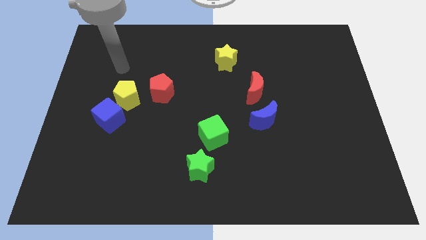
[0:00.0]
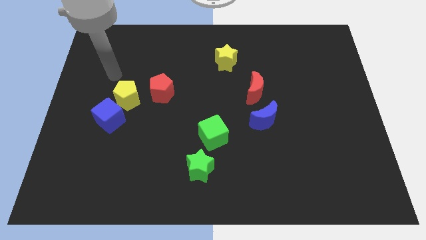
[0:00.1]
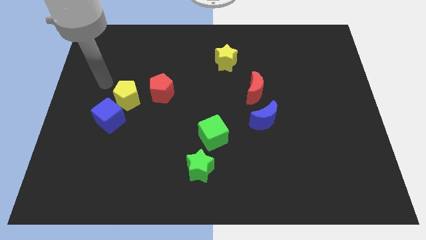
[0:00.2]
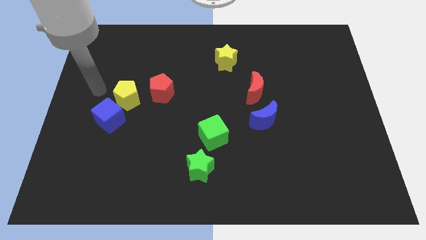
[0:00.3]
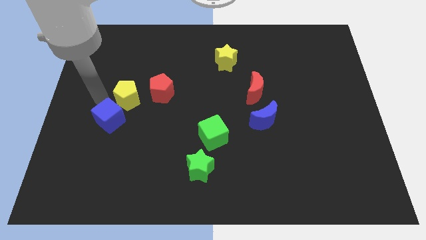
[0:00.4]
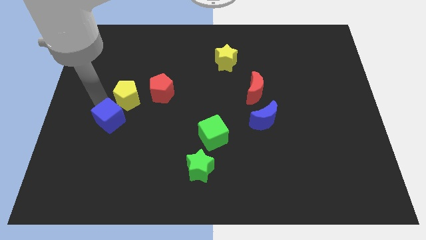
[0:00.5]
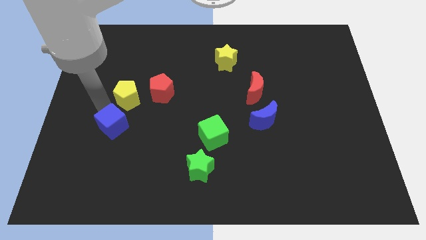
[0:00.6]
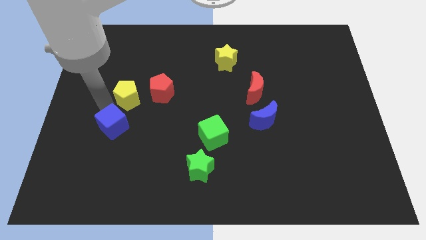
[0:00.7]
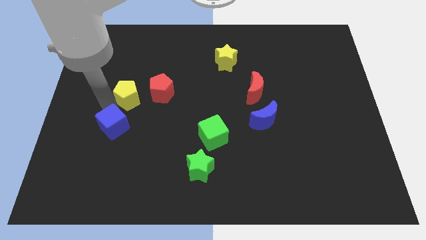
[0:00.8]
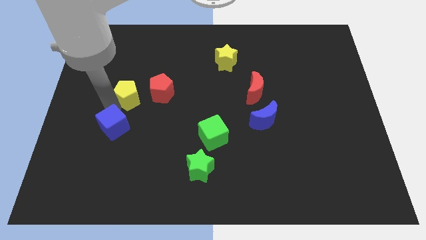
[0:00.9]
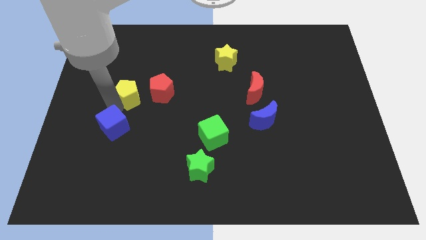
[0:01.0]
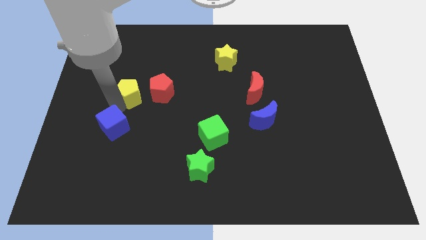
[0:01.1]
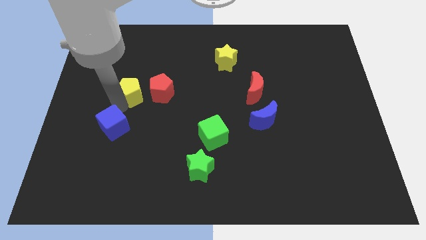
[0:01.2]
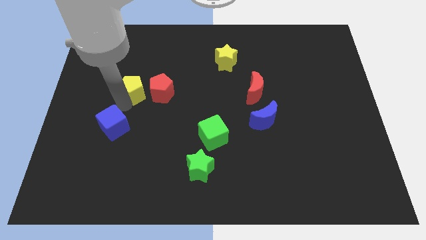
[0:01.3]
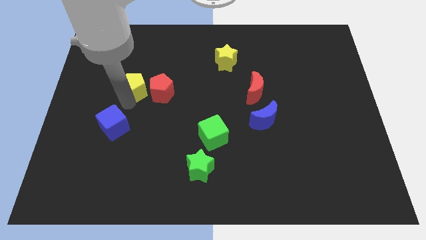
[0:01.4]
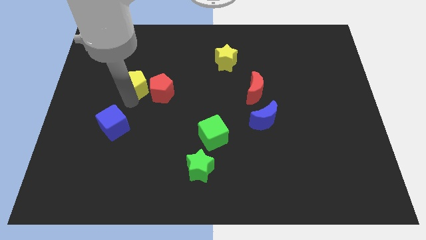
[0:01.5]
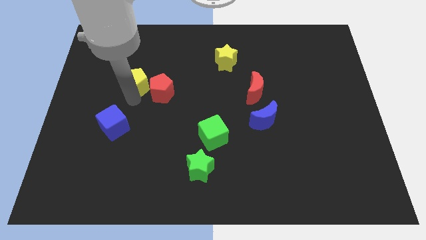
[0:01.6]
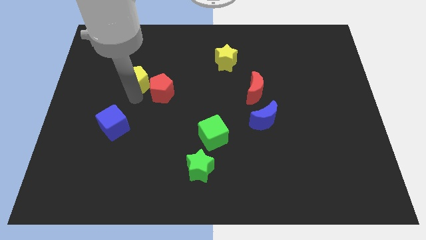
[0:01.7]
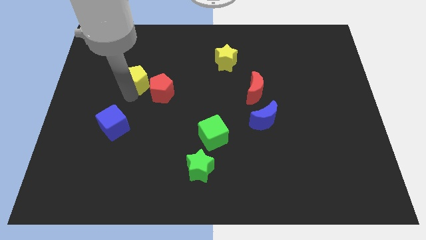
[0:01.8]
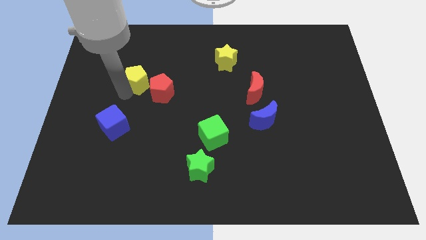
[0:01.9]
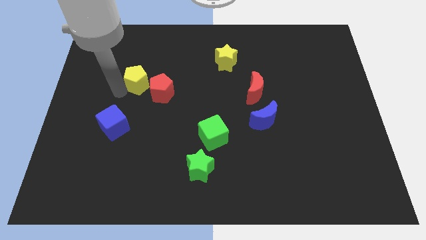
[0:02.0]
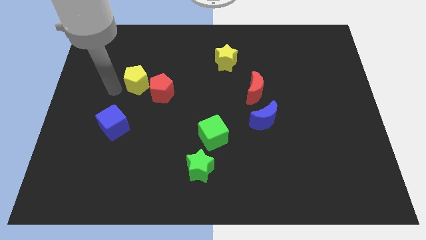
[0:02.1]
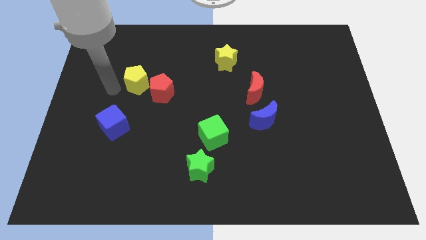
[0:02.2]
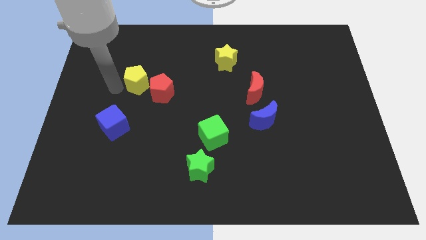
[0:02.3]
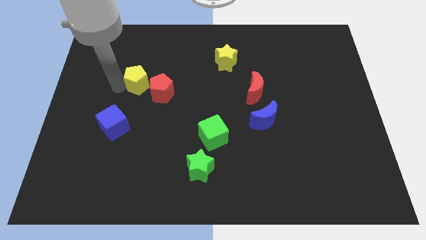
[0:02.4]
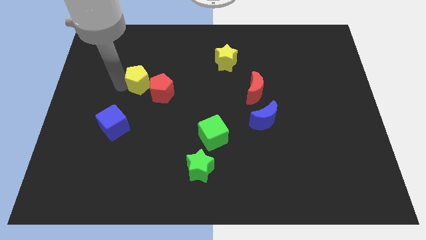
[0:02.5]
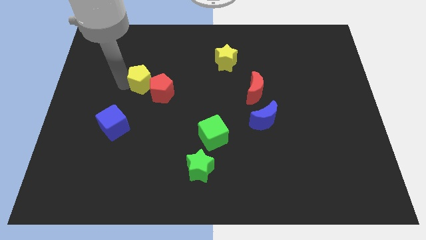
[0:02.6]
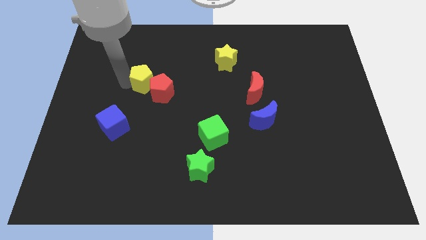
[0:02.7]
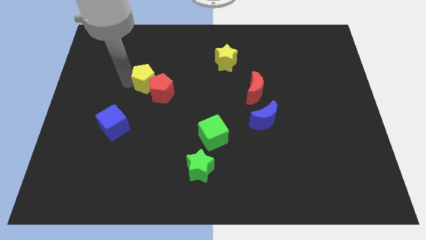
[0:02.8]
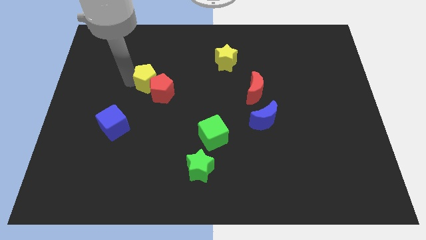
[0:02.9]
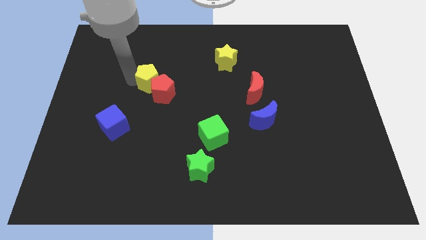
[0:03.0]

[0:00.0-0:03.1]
slightly move the yellow pentagon diagonally upwards and to the right

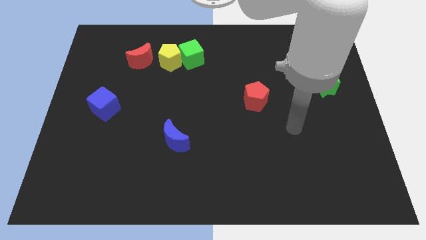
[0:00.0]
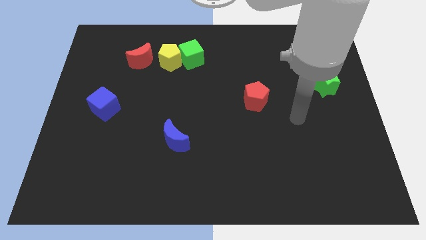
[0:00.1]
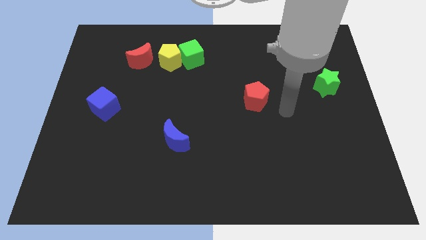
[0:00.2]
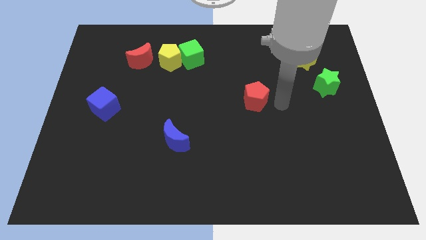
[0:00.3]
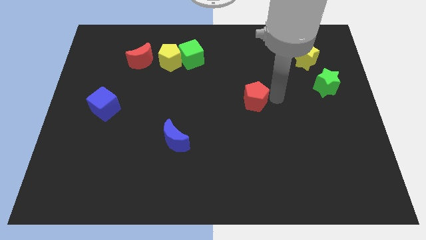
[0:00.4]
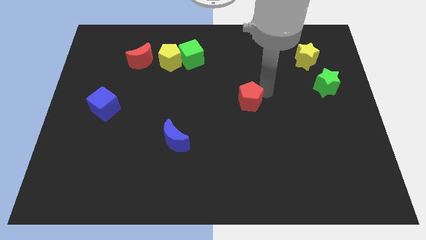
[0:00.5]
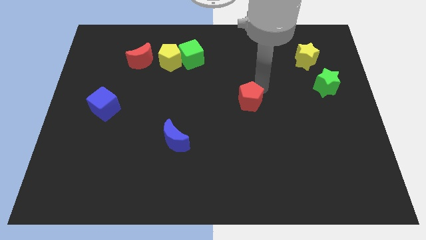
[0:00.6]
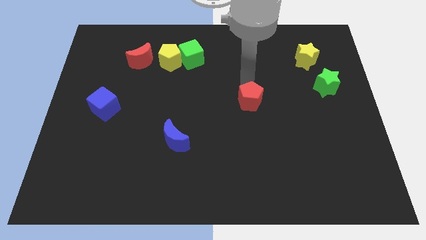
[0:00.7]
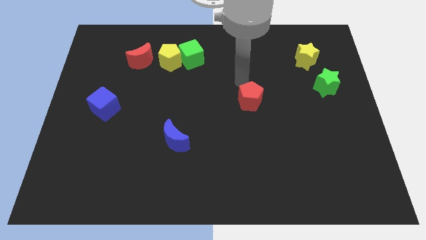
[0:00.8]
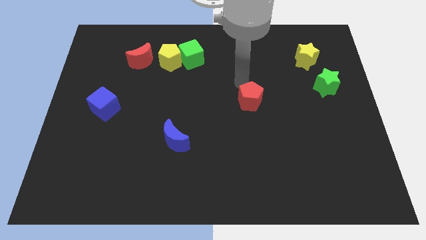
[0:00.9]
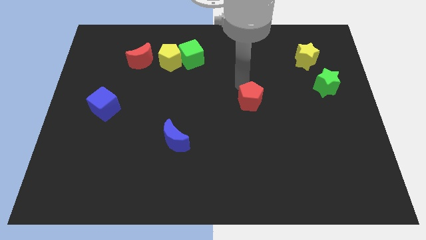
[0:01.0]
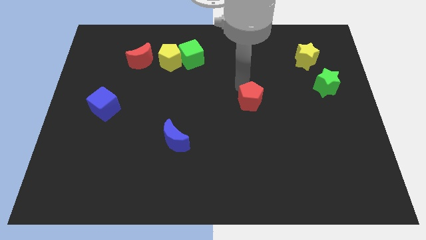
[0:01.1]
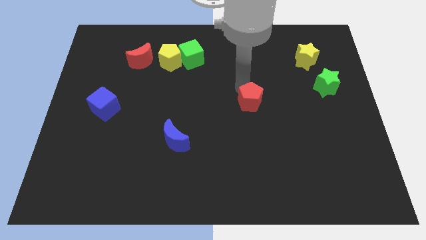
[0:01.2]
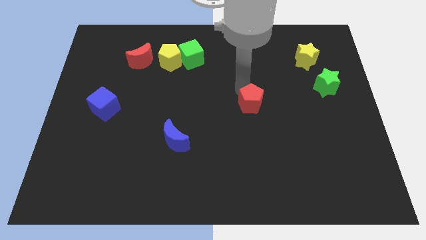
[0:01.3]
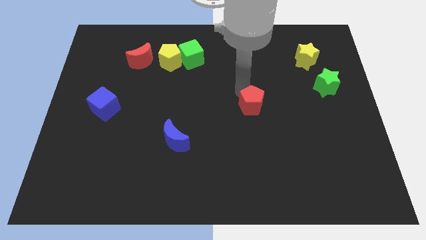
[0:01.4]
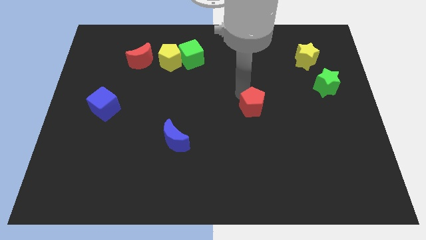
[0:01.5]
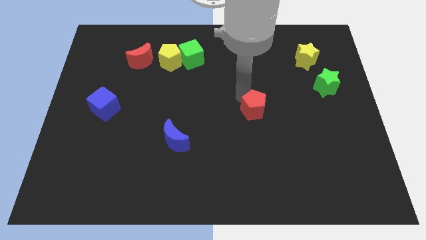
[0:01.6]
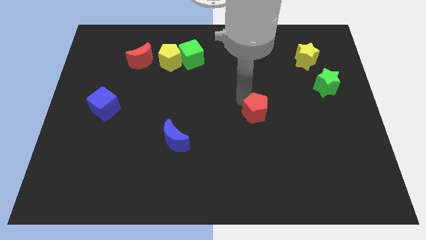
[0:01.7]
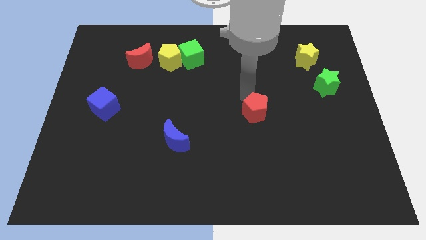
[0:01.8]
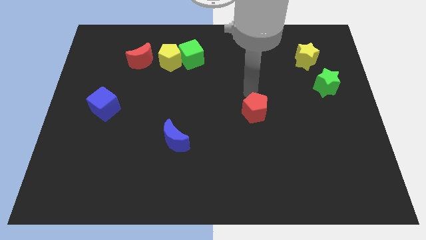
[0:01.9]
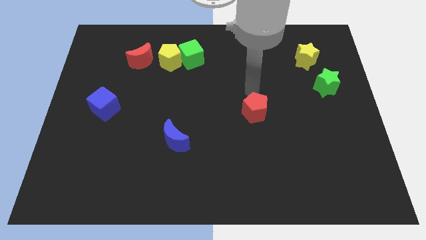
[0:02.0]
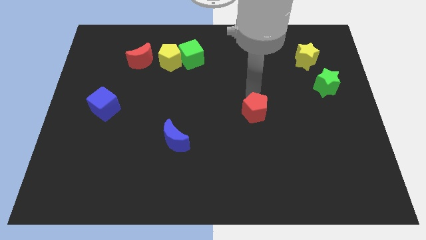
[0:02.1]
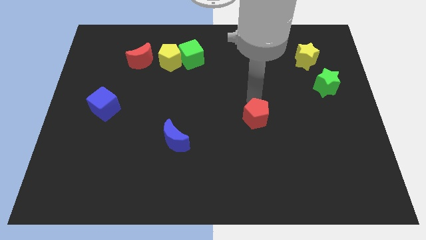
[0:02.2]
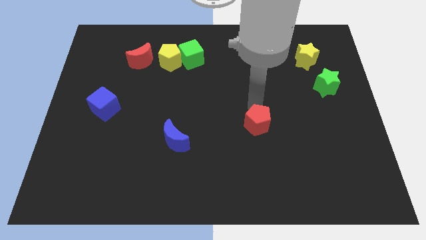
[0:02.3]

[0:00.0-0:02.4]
slightly slide the red pentagon downwards

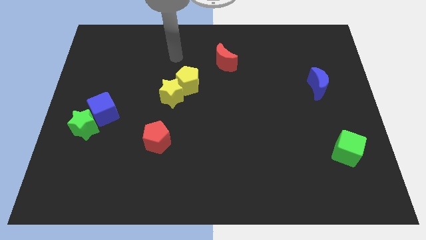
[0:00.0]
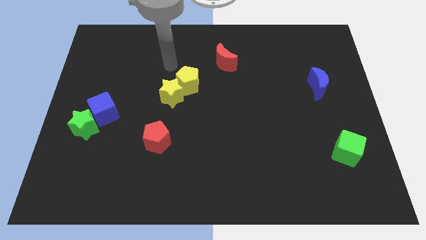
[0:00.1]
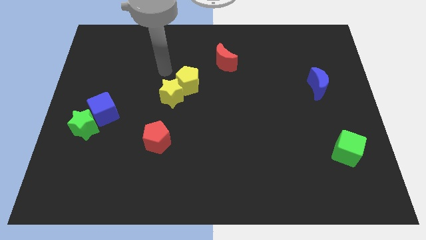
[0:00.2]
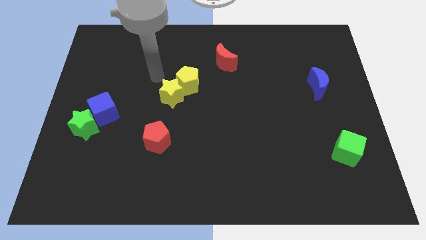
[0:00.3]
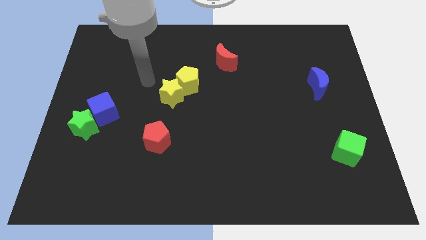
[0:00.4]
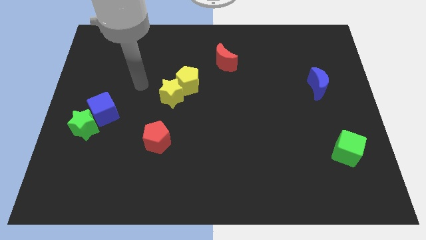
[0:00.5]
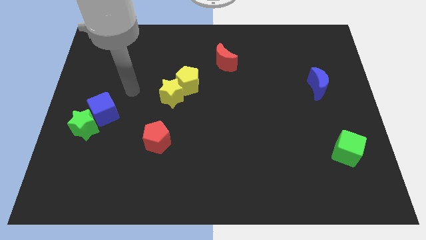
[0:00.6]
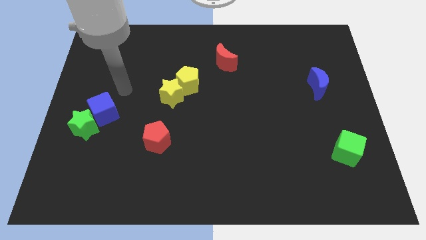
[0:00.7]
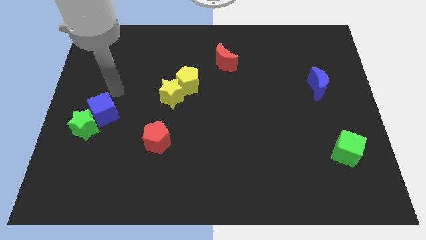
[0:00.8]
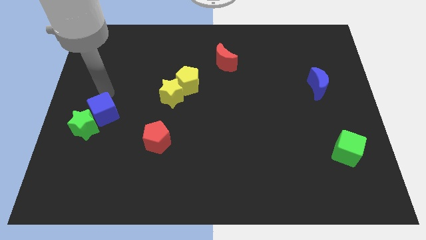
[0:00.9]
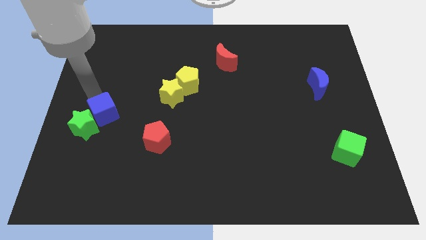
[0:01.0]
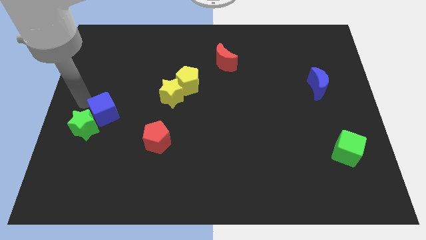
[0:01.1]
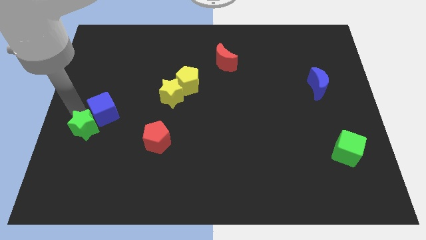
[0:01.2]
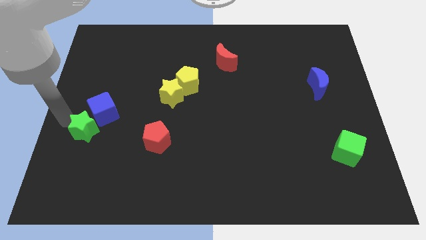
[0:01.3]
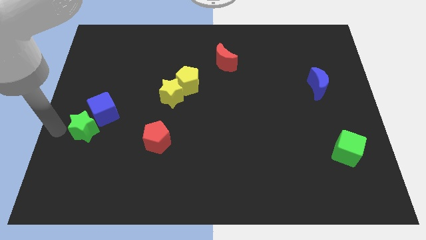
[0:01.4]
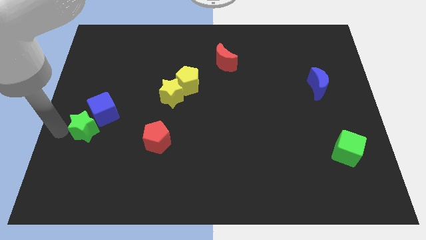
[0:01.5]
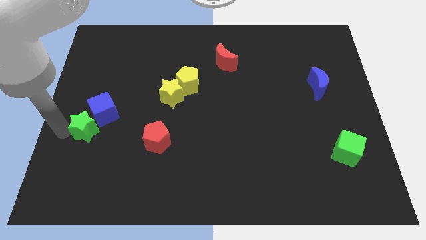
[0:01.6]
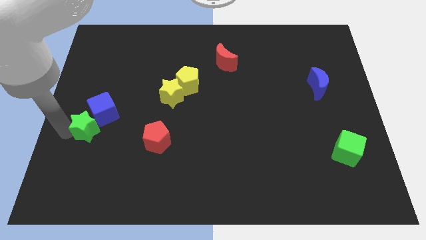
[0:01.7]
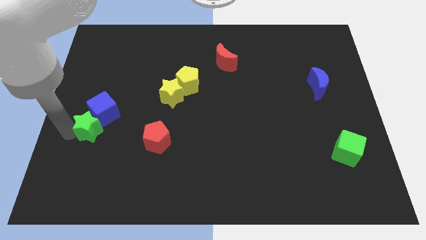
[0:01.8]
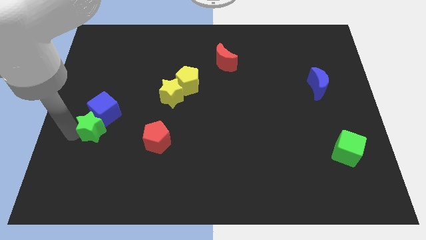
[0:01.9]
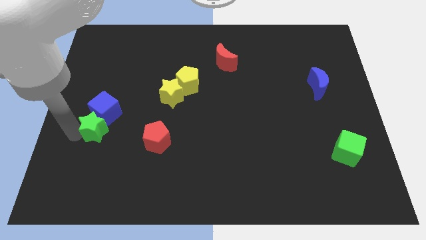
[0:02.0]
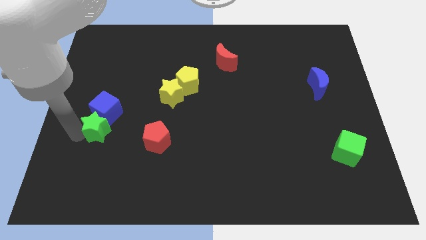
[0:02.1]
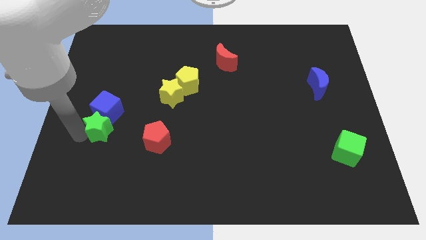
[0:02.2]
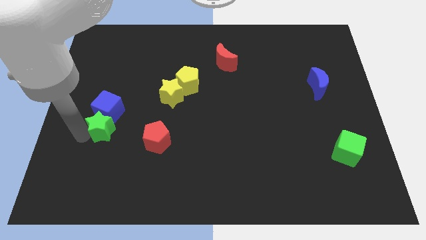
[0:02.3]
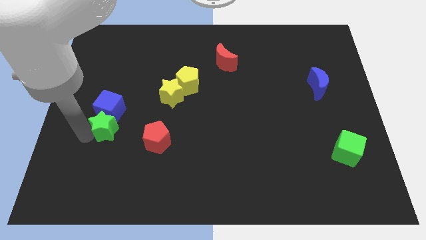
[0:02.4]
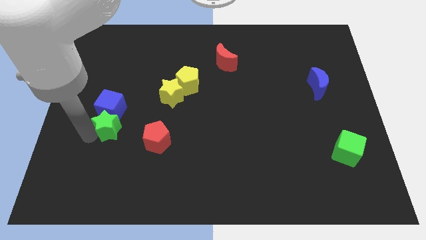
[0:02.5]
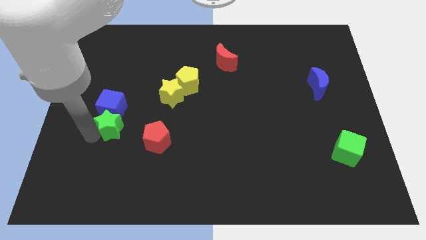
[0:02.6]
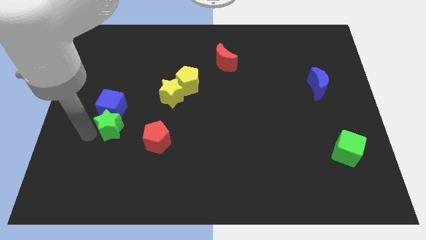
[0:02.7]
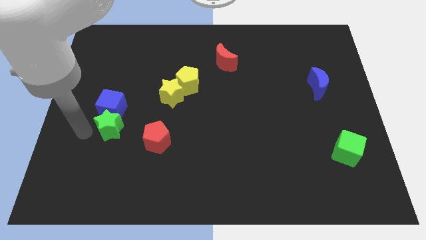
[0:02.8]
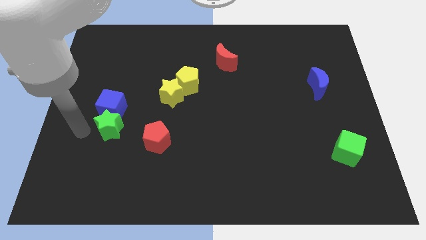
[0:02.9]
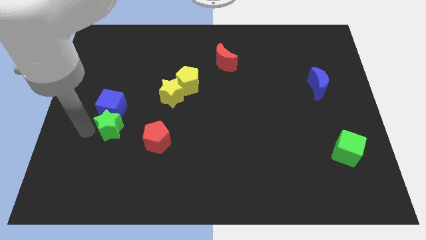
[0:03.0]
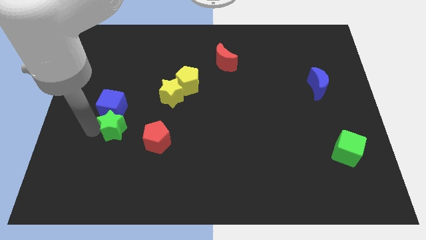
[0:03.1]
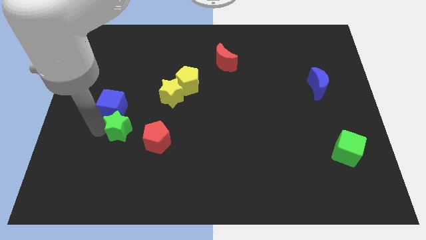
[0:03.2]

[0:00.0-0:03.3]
slide the green star to the right a little
